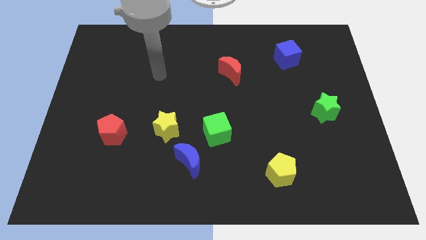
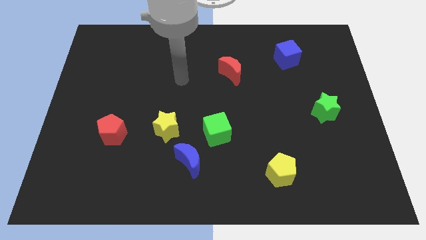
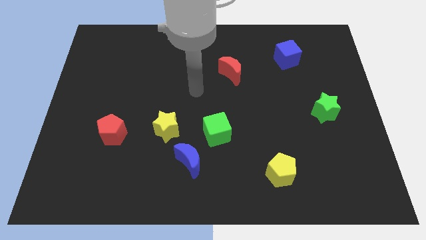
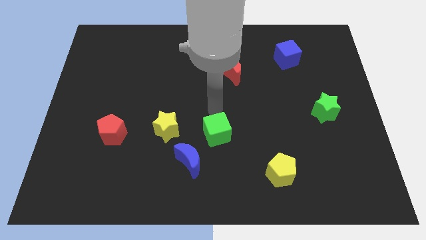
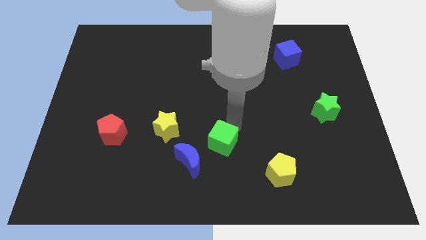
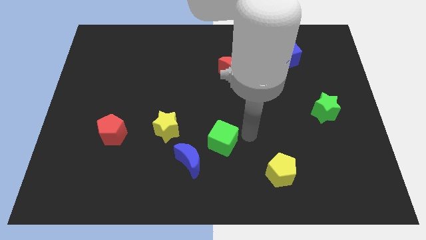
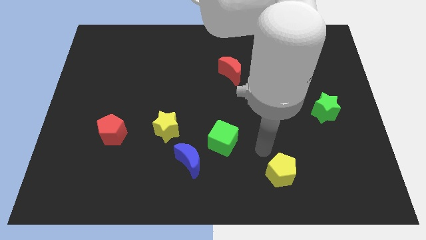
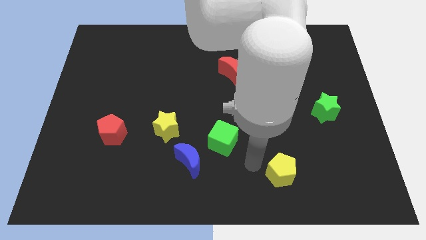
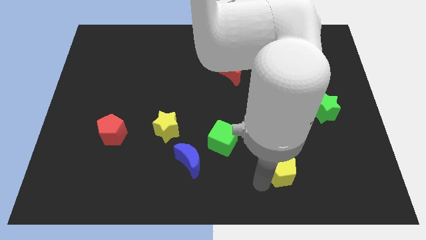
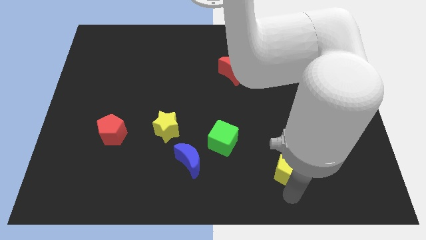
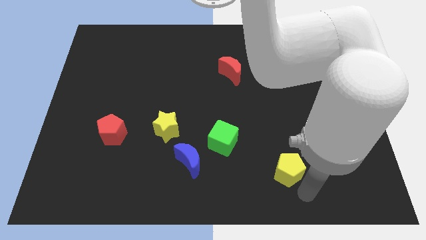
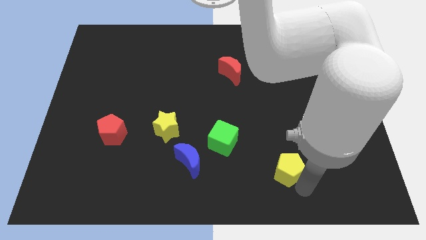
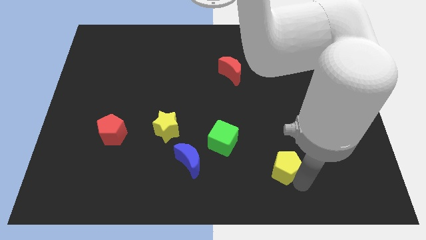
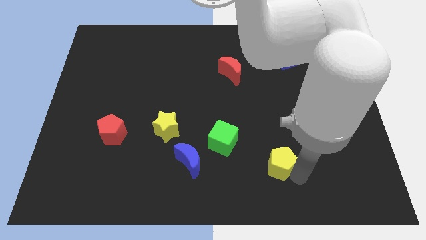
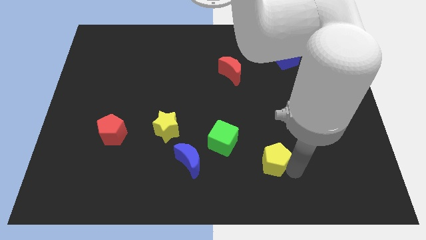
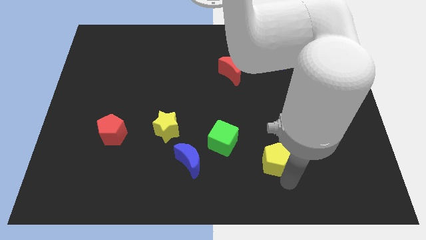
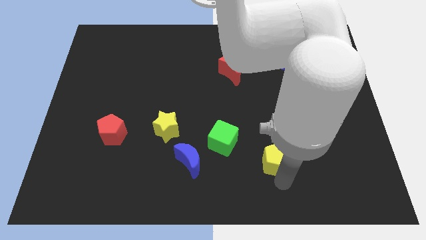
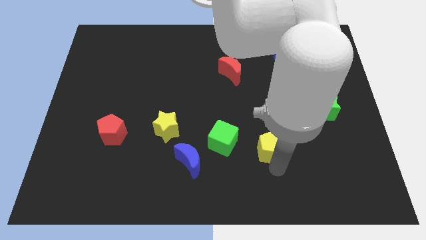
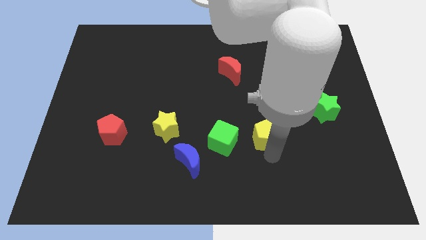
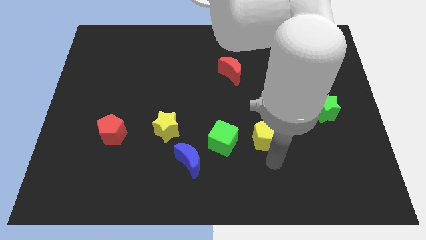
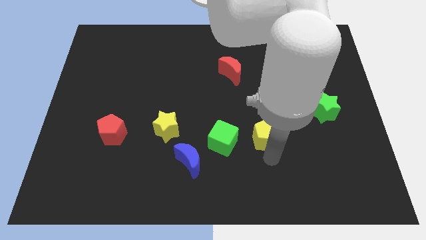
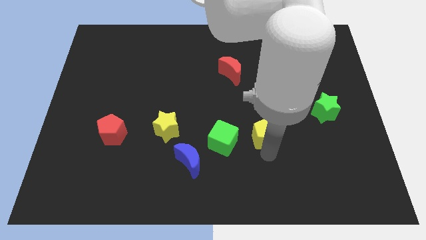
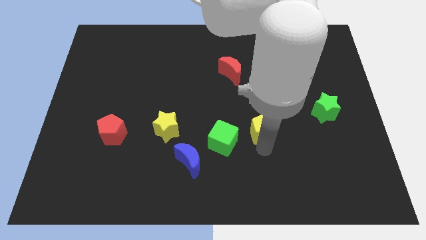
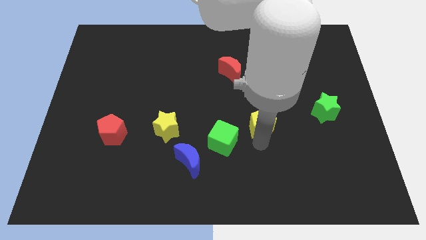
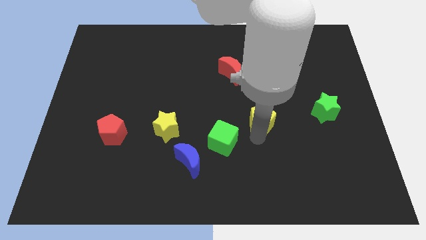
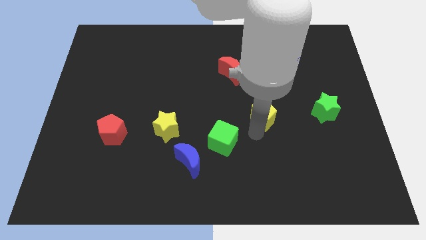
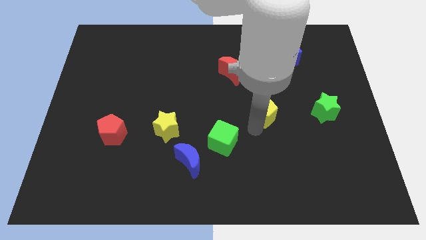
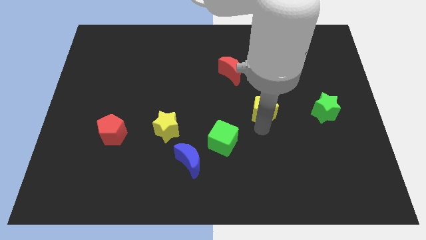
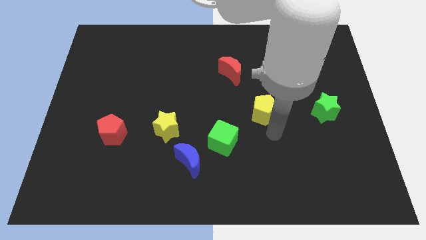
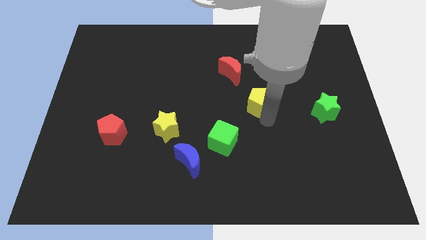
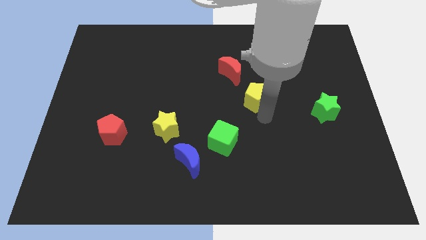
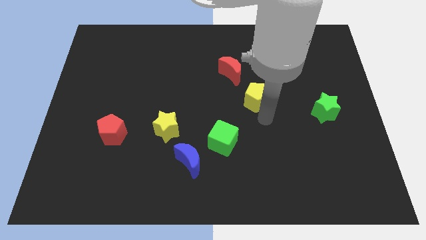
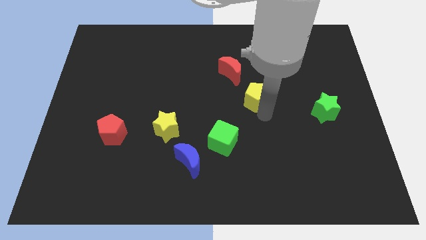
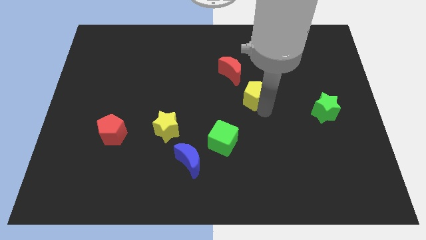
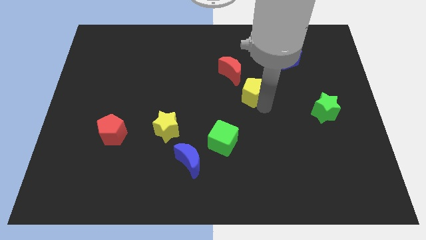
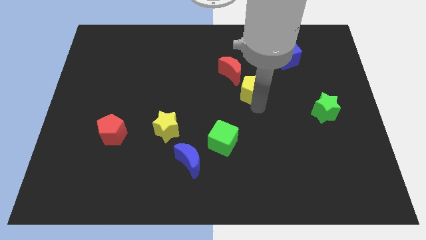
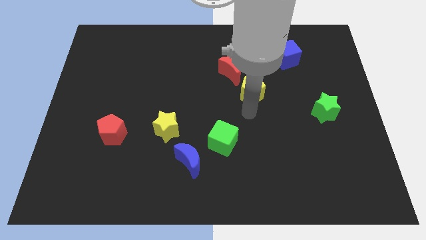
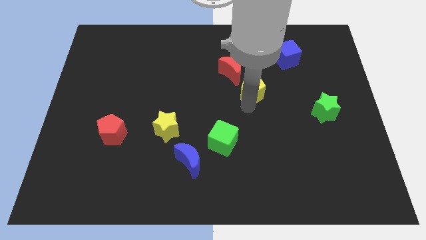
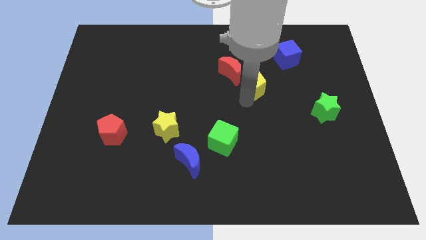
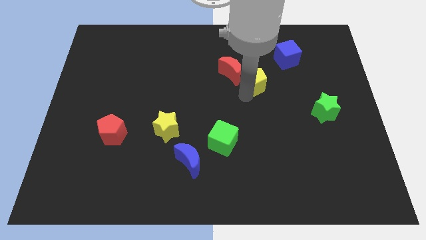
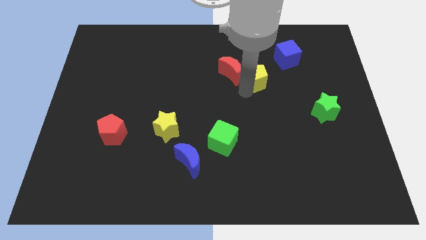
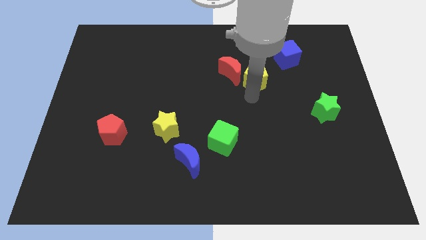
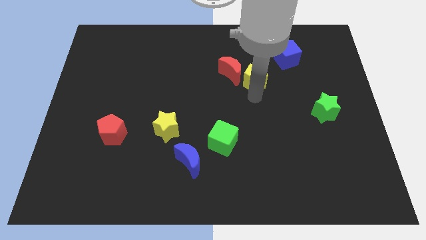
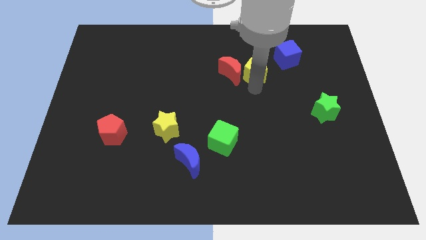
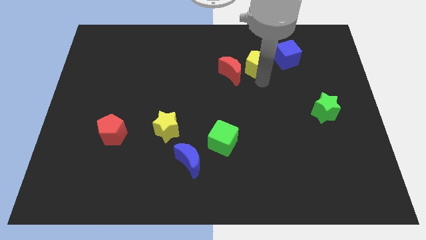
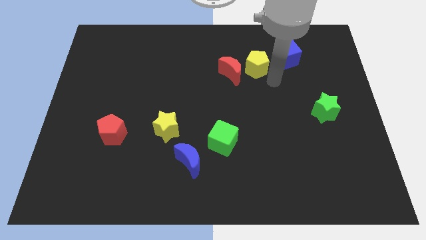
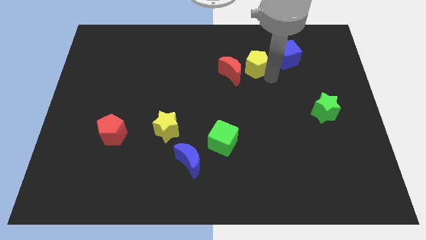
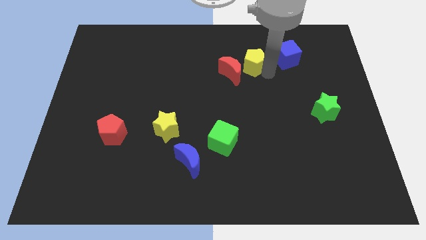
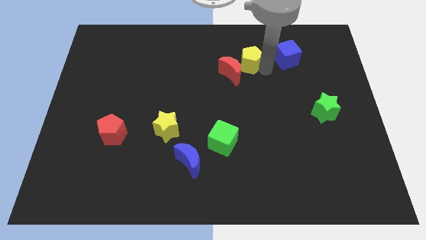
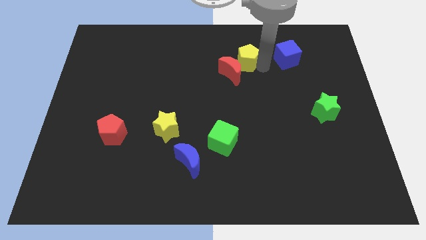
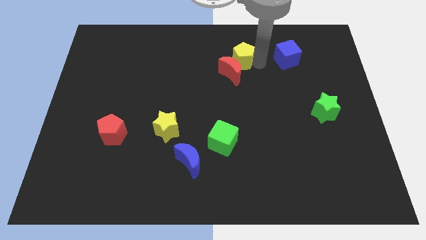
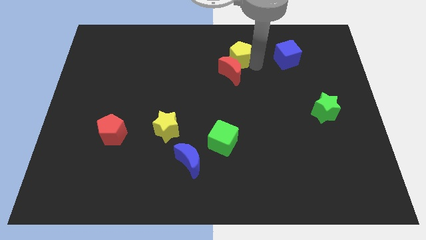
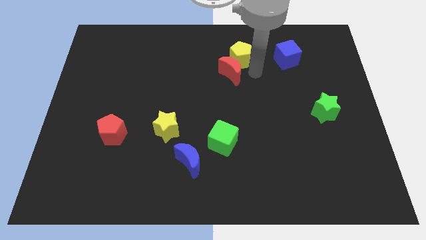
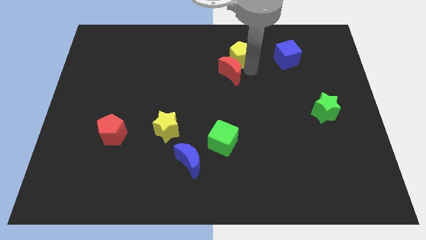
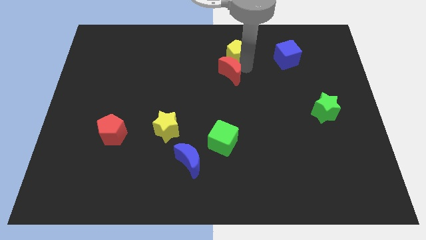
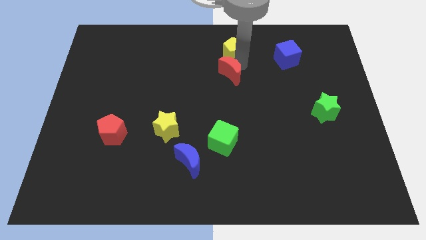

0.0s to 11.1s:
move the yellow pentagon to the towards your base

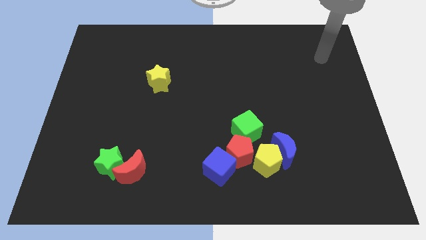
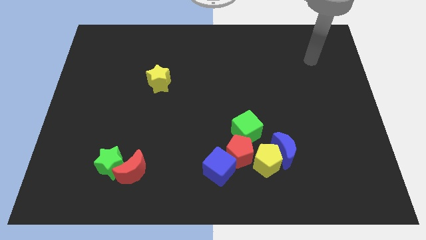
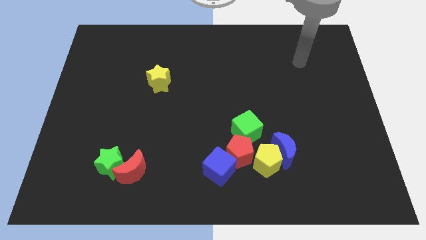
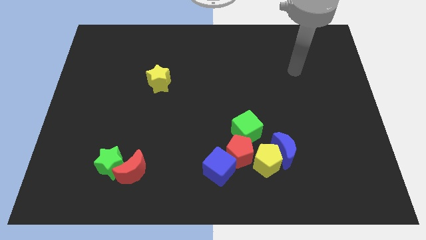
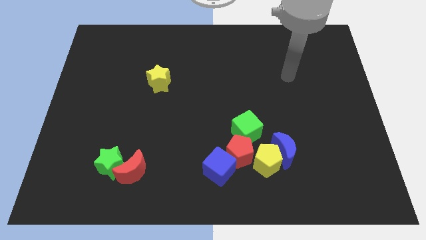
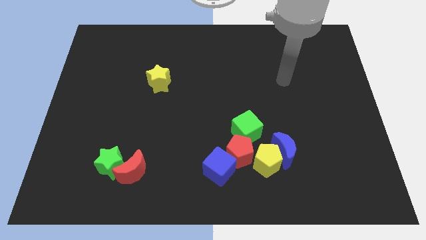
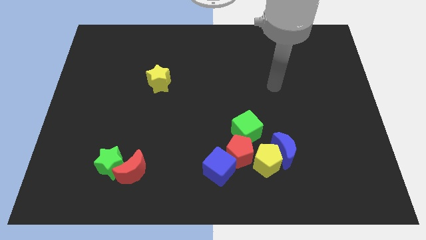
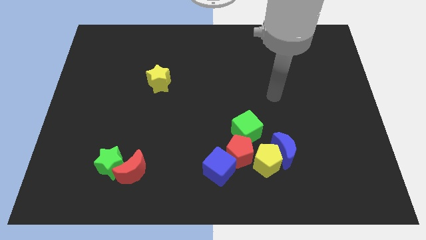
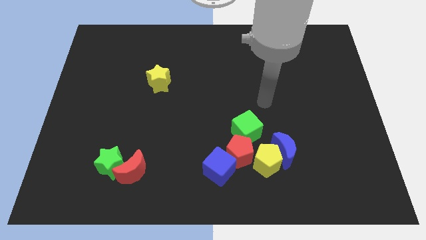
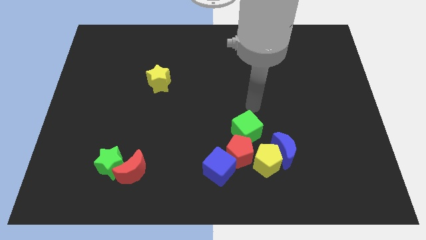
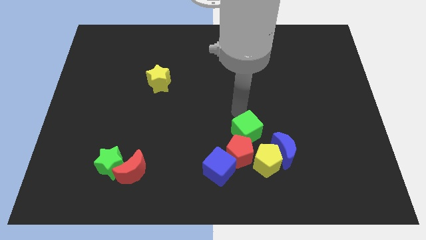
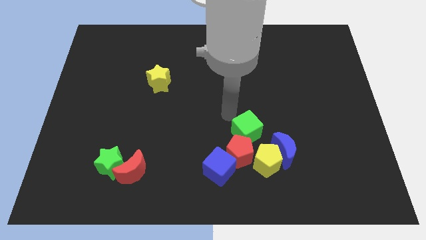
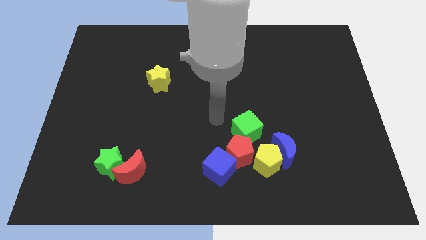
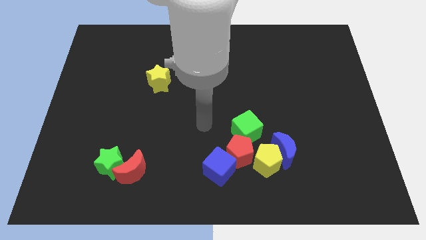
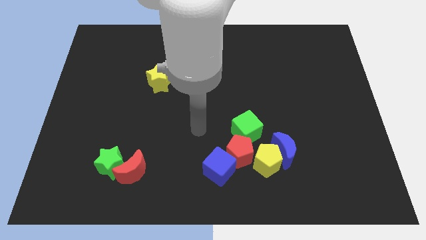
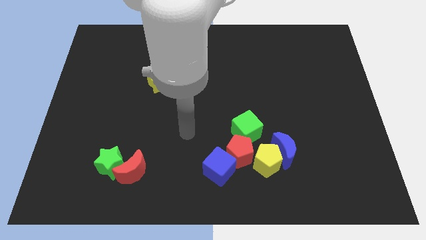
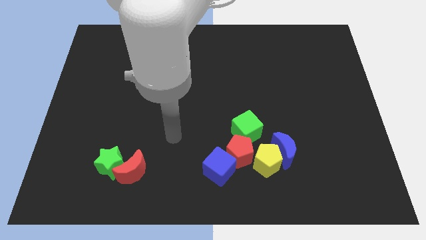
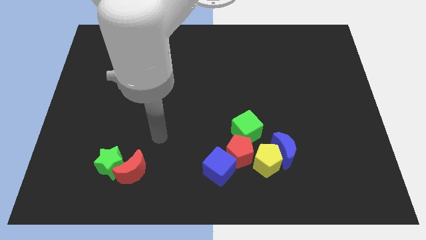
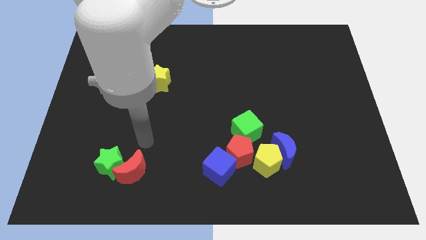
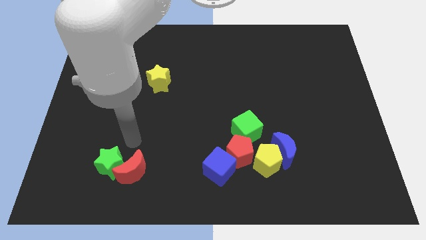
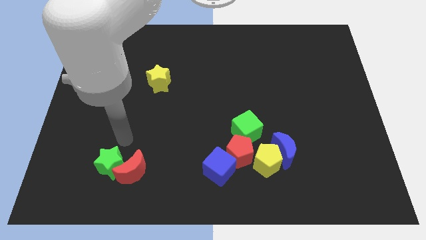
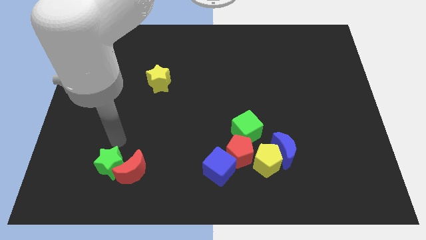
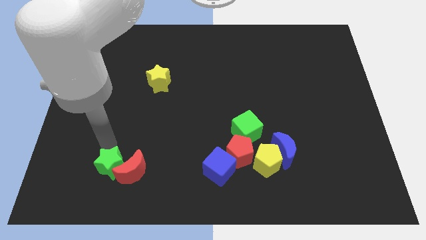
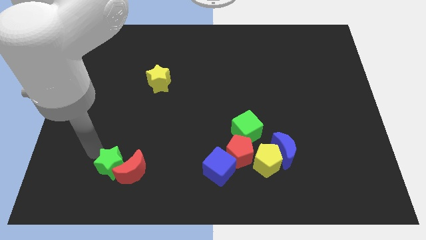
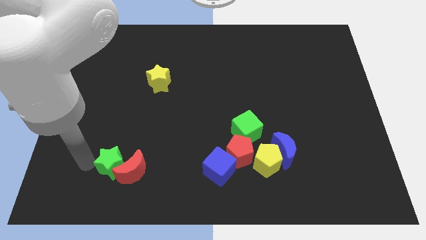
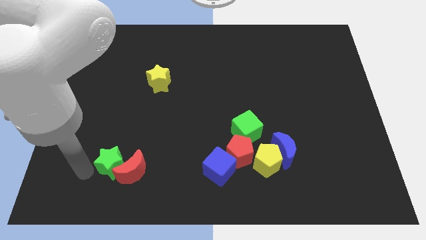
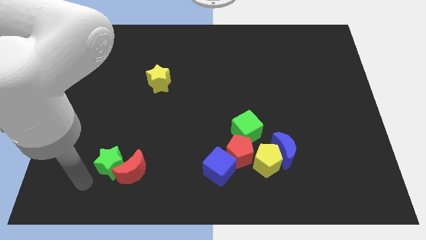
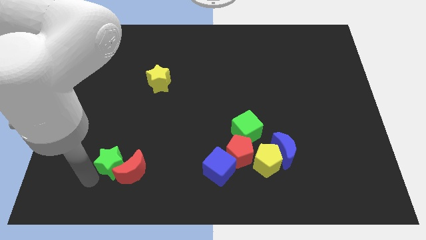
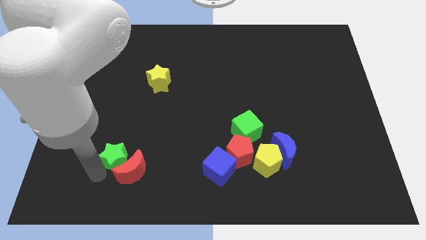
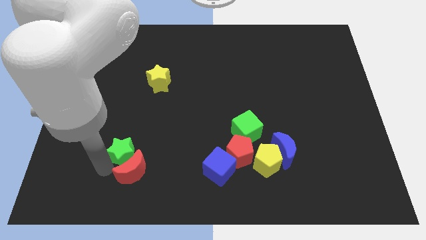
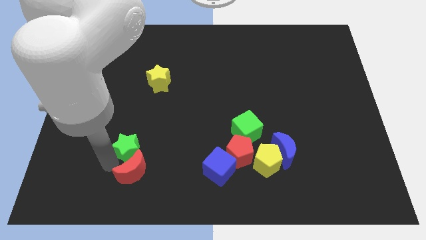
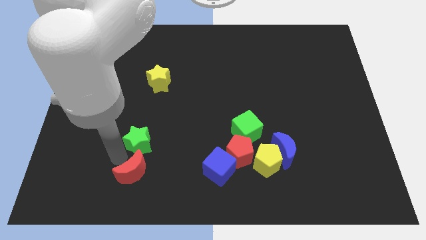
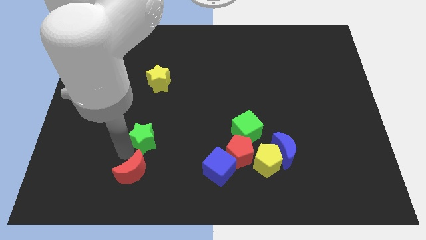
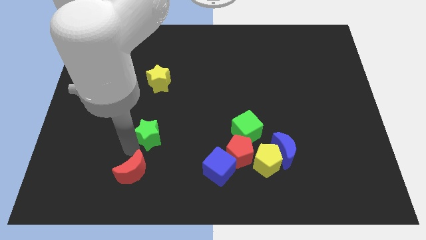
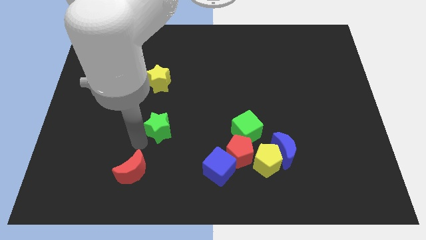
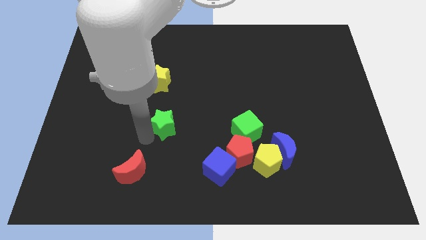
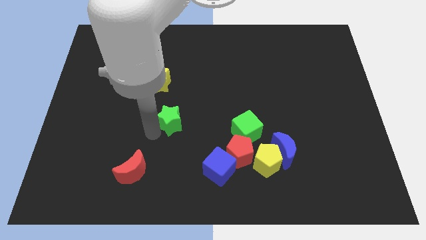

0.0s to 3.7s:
put the green star to the center of the board
